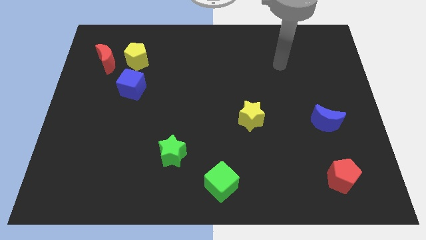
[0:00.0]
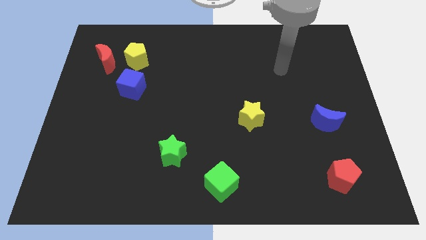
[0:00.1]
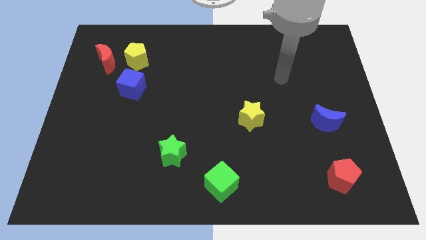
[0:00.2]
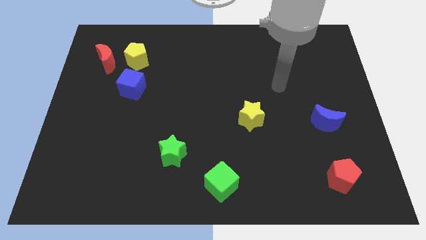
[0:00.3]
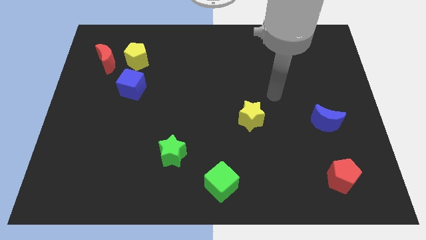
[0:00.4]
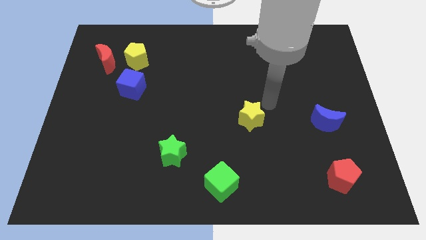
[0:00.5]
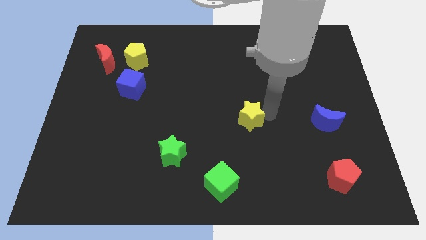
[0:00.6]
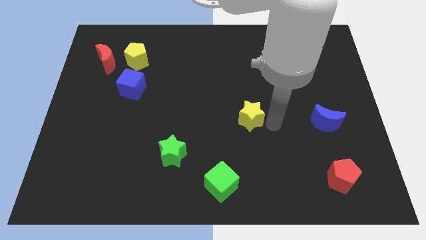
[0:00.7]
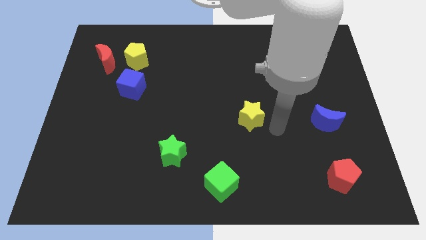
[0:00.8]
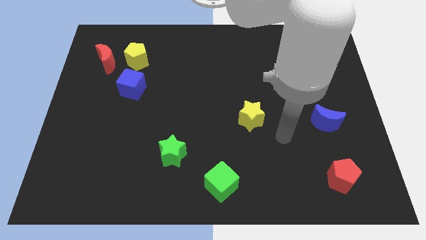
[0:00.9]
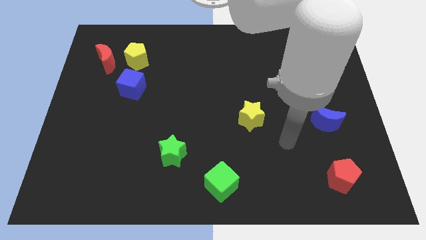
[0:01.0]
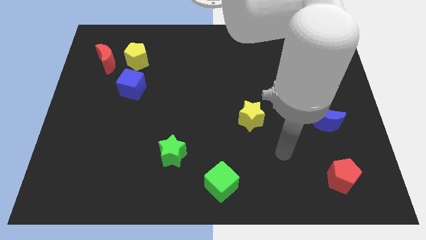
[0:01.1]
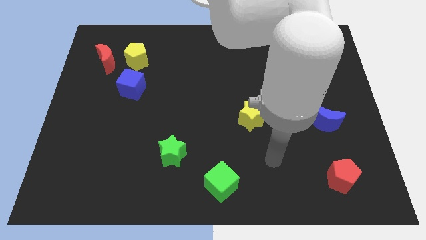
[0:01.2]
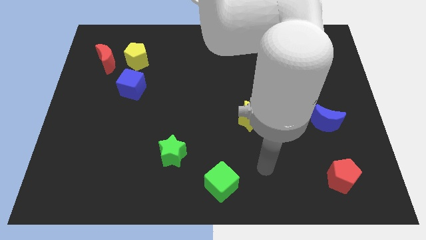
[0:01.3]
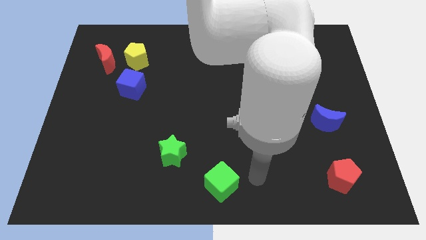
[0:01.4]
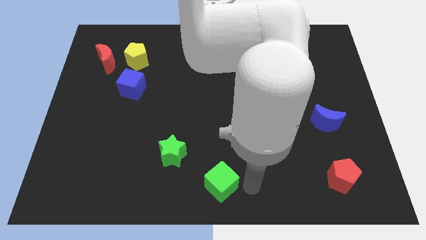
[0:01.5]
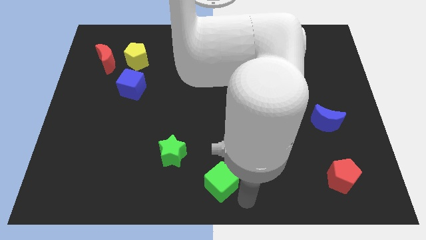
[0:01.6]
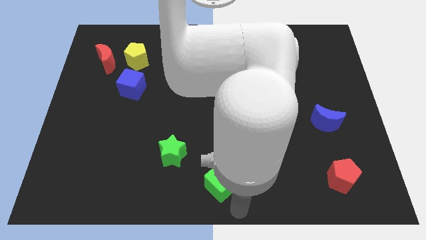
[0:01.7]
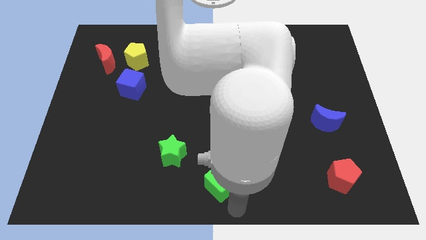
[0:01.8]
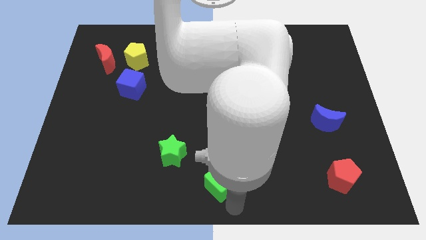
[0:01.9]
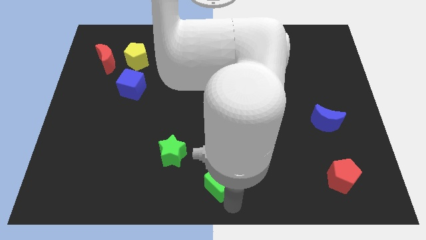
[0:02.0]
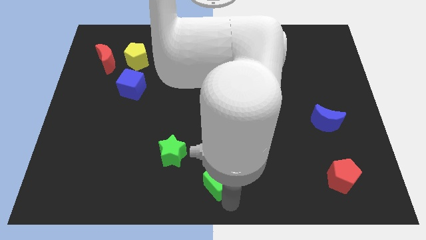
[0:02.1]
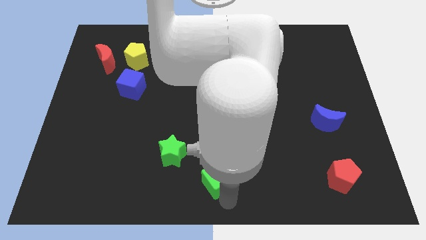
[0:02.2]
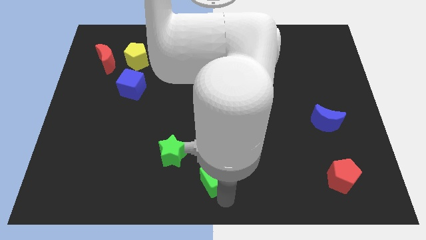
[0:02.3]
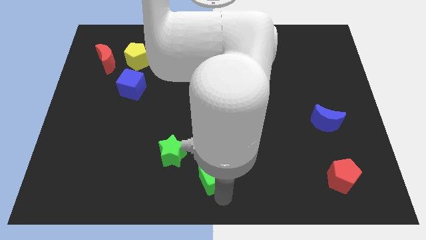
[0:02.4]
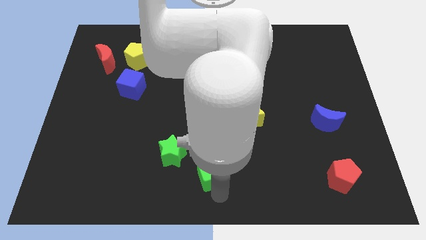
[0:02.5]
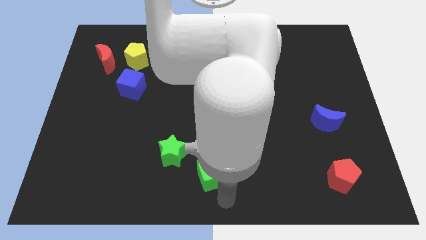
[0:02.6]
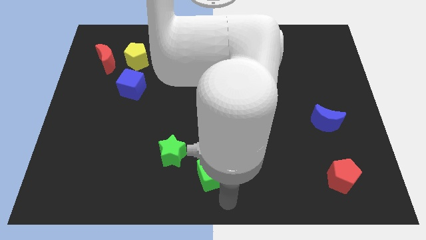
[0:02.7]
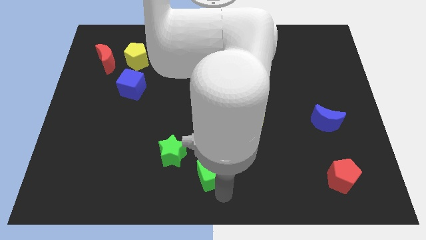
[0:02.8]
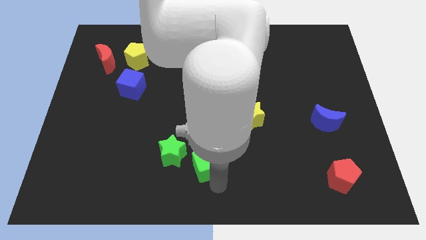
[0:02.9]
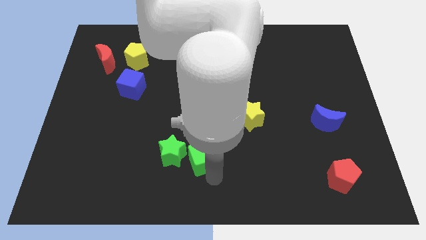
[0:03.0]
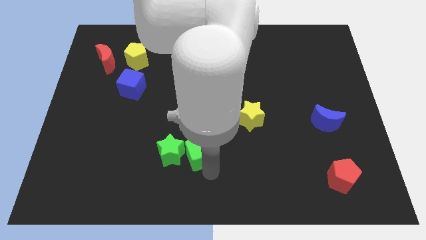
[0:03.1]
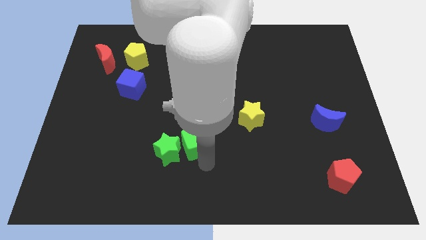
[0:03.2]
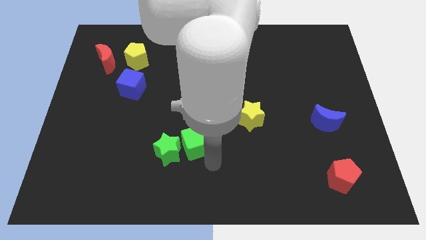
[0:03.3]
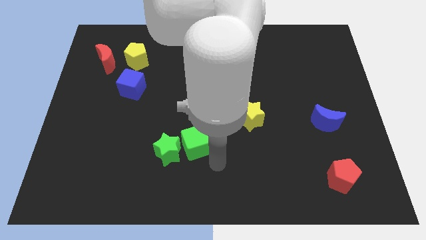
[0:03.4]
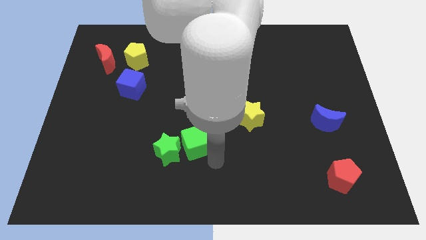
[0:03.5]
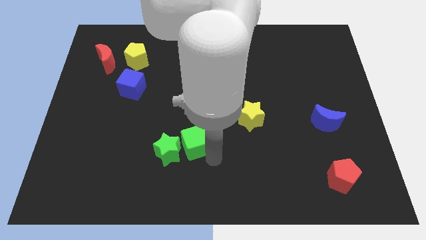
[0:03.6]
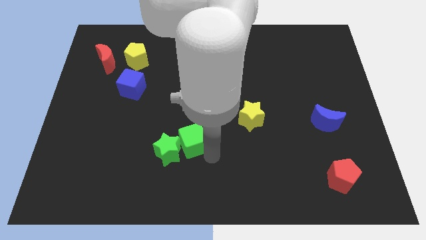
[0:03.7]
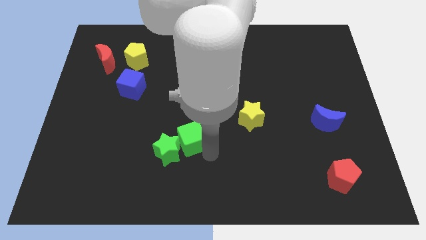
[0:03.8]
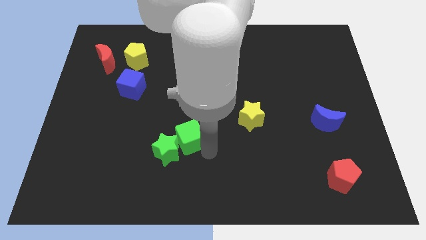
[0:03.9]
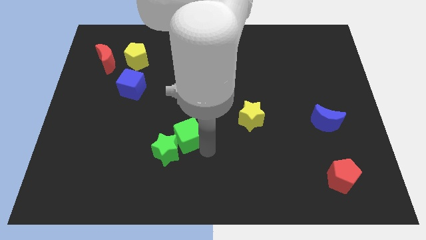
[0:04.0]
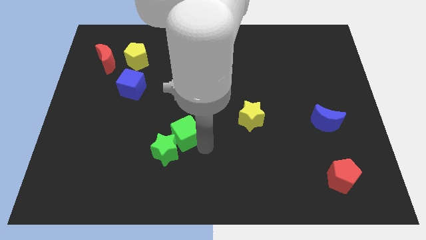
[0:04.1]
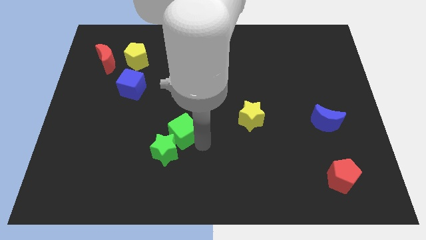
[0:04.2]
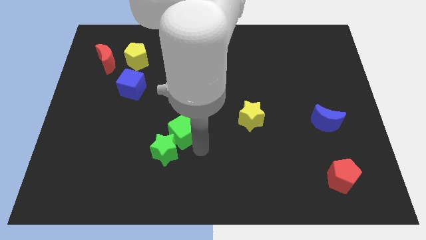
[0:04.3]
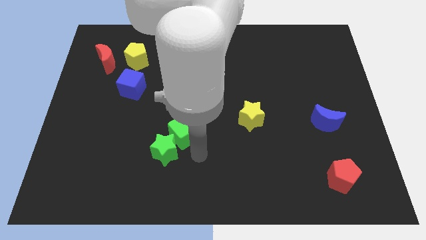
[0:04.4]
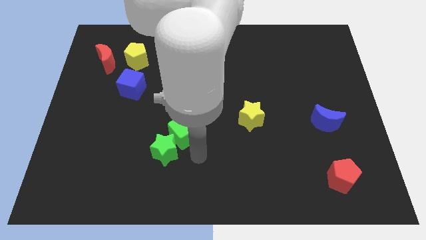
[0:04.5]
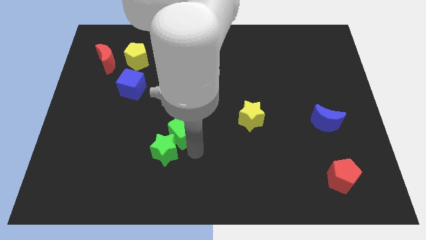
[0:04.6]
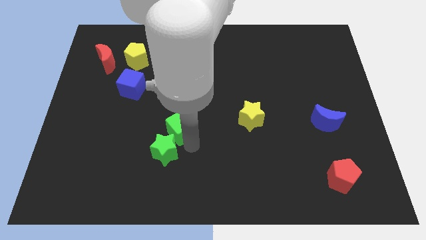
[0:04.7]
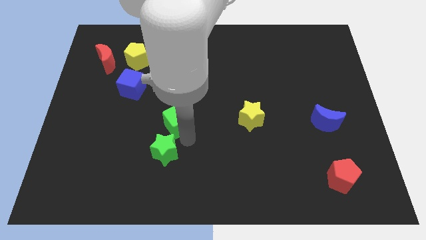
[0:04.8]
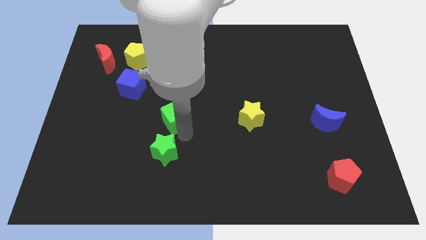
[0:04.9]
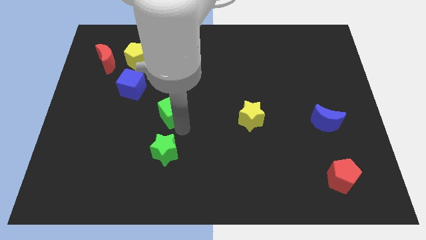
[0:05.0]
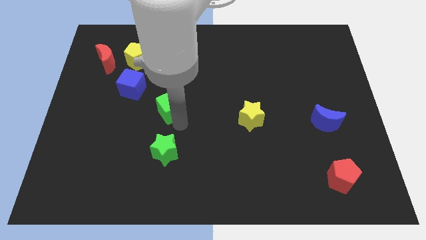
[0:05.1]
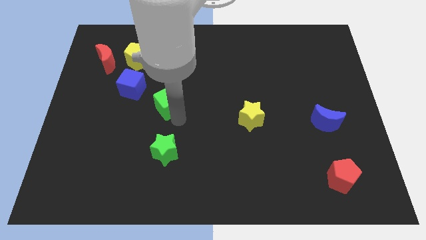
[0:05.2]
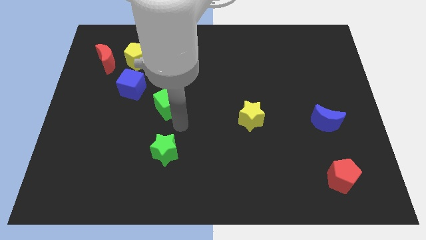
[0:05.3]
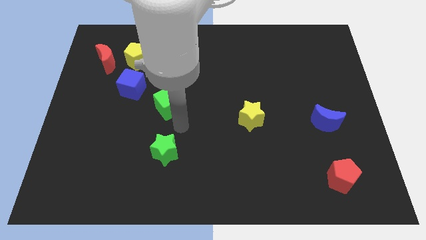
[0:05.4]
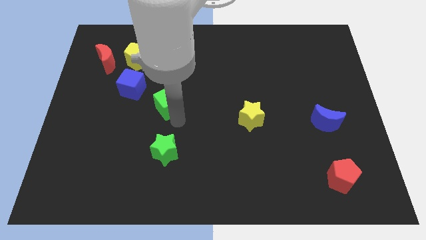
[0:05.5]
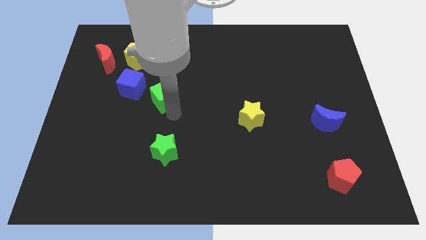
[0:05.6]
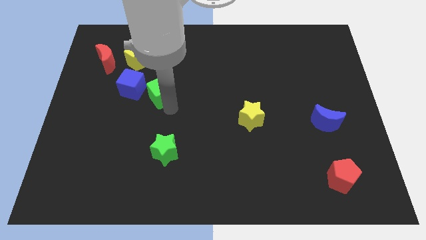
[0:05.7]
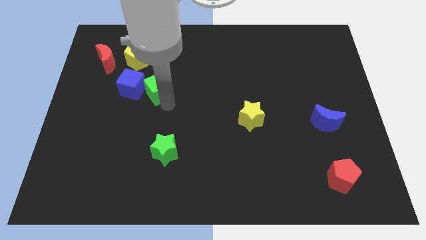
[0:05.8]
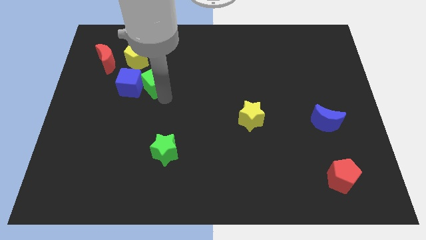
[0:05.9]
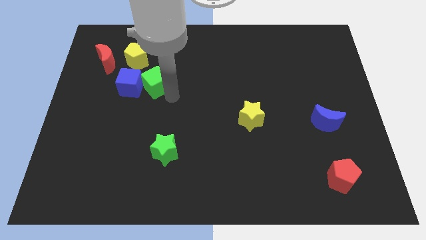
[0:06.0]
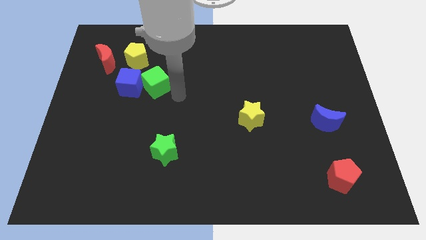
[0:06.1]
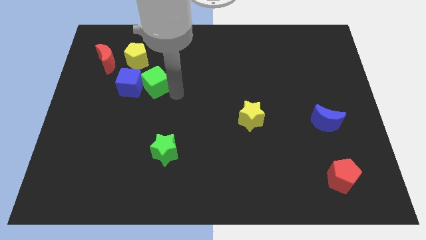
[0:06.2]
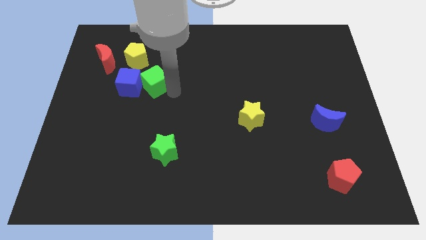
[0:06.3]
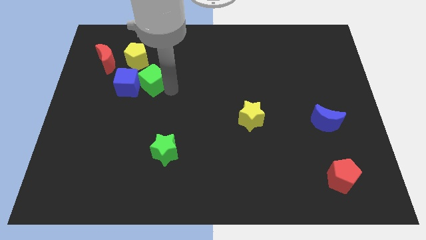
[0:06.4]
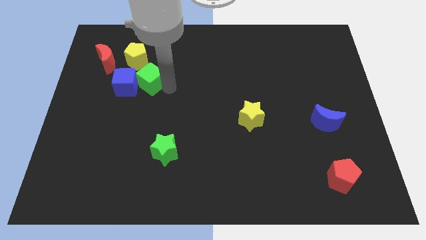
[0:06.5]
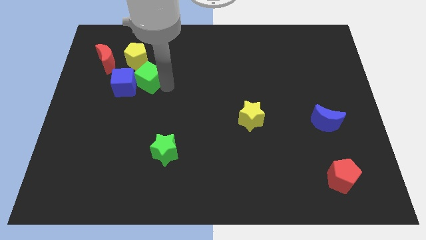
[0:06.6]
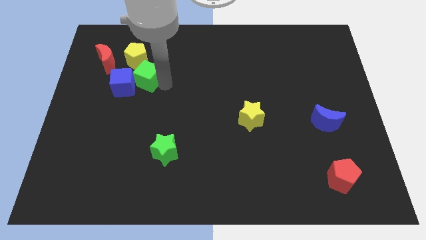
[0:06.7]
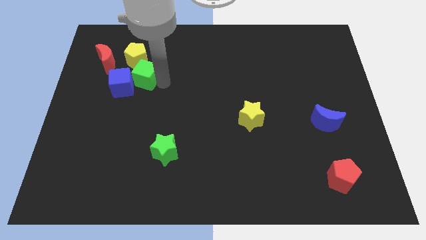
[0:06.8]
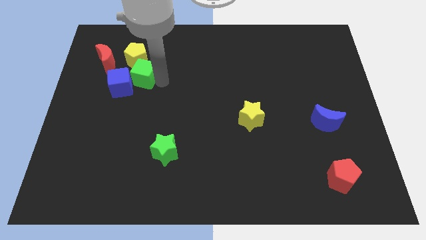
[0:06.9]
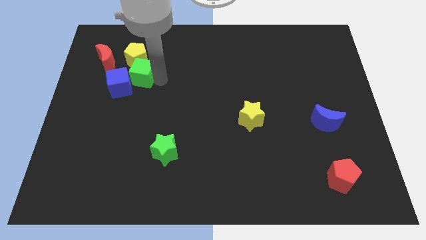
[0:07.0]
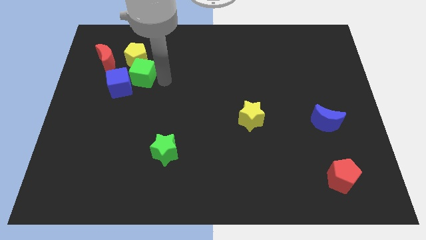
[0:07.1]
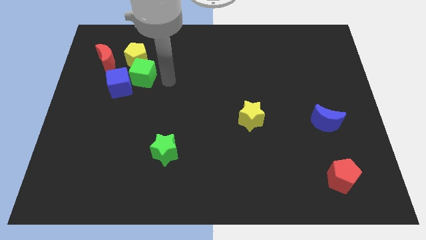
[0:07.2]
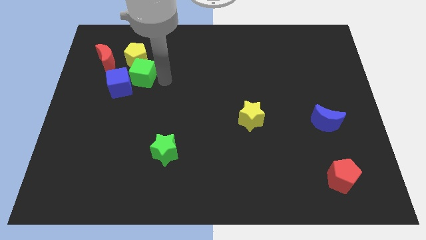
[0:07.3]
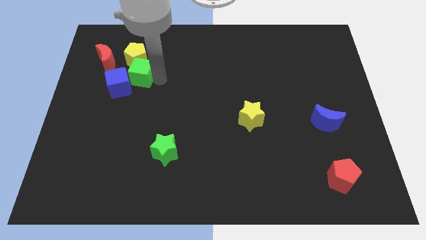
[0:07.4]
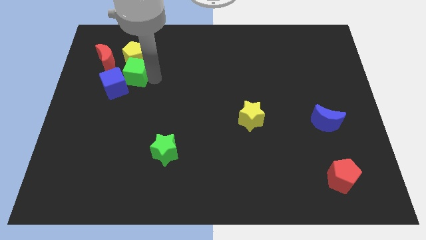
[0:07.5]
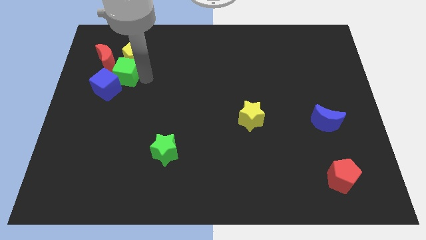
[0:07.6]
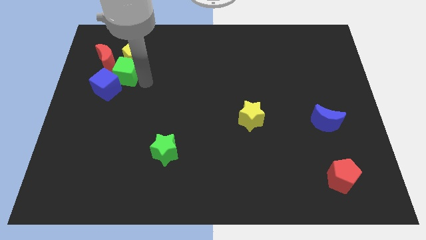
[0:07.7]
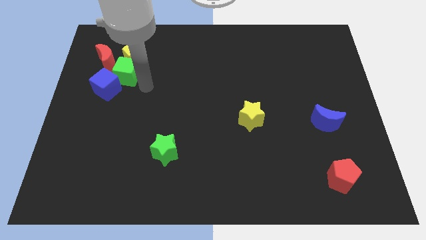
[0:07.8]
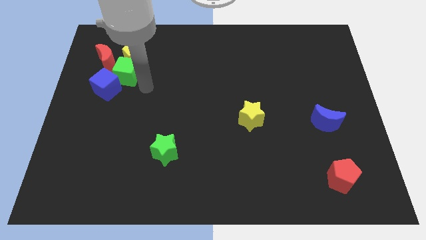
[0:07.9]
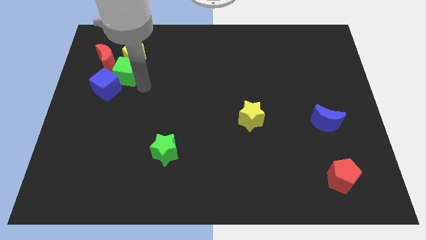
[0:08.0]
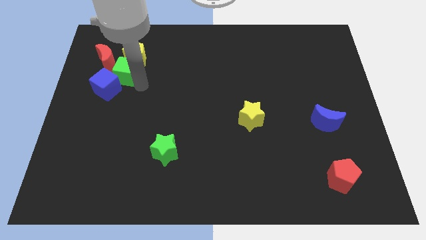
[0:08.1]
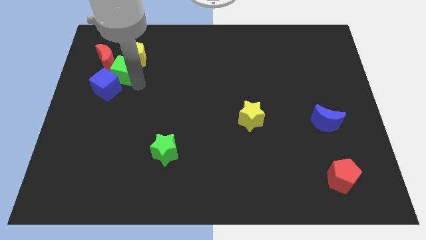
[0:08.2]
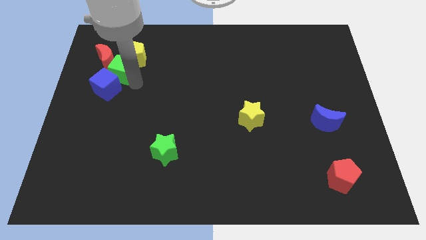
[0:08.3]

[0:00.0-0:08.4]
push the green cube towards the red moon
